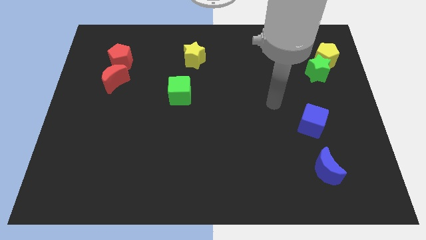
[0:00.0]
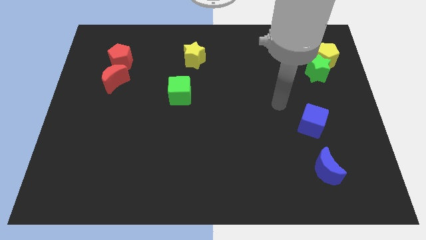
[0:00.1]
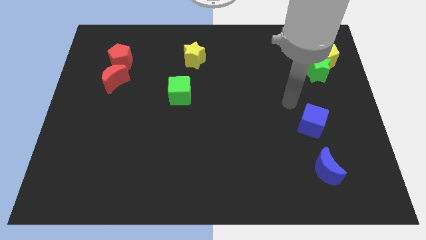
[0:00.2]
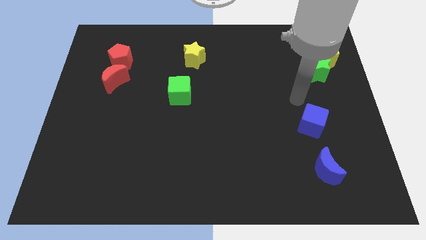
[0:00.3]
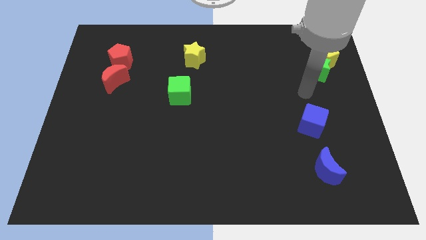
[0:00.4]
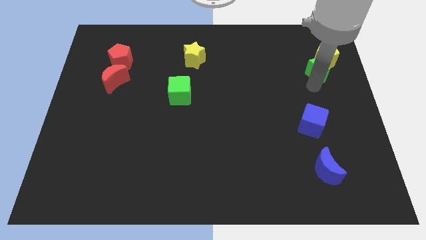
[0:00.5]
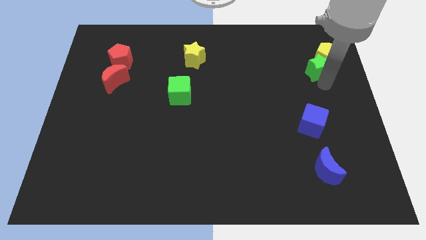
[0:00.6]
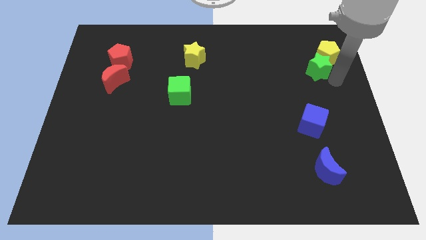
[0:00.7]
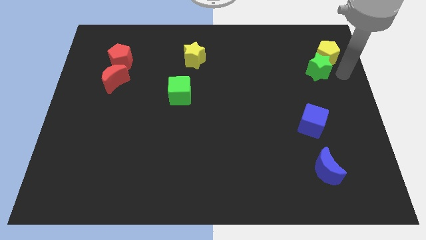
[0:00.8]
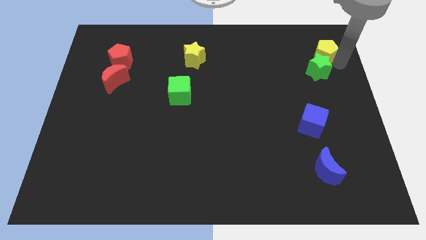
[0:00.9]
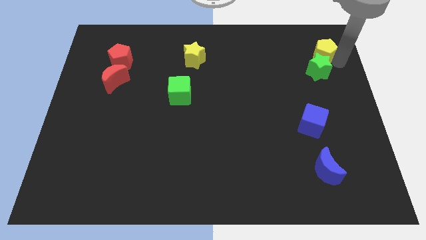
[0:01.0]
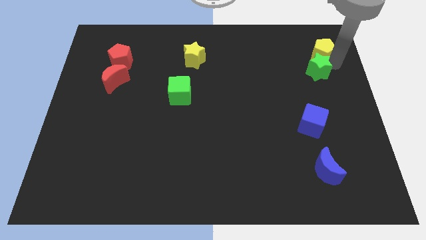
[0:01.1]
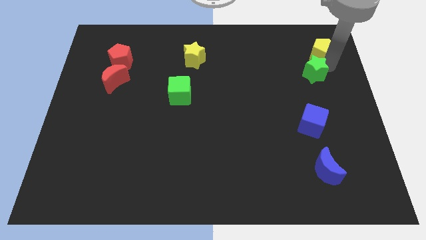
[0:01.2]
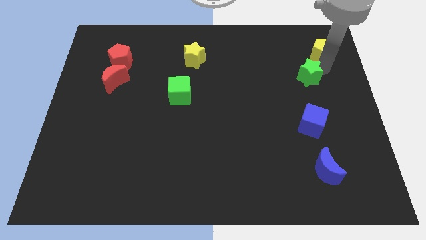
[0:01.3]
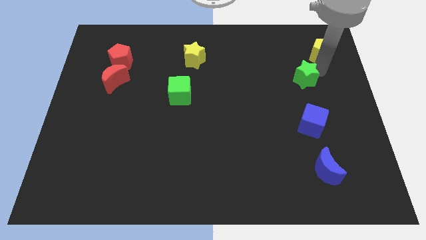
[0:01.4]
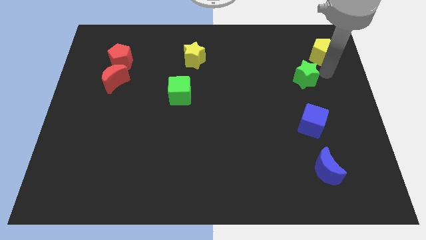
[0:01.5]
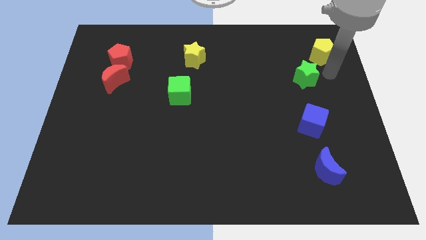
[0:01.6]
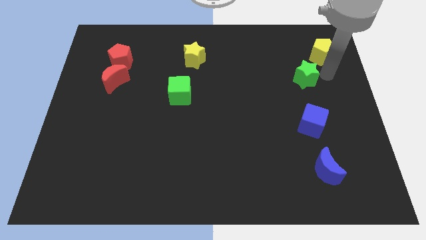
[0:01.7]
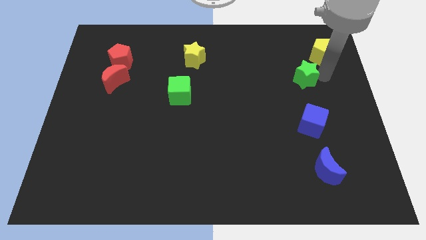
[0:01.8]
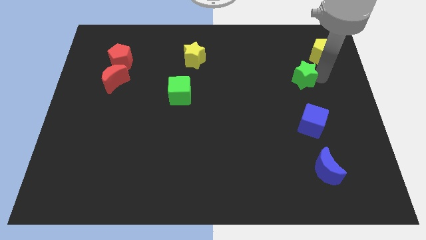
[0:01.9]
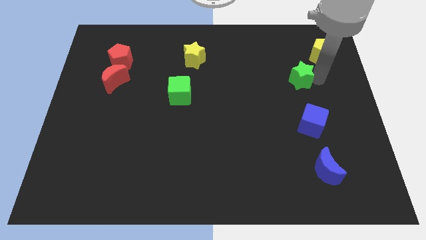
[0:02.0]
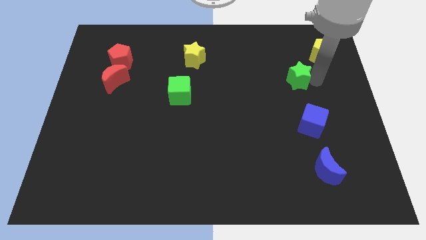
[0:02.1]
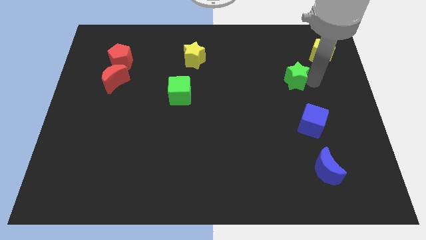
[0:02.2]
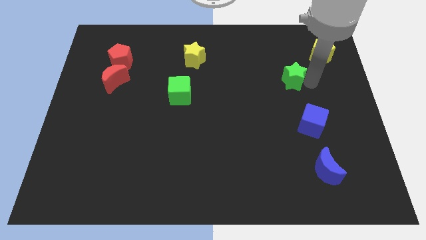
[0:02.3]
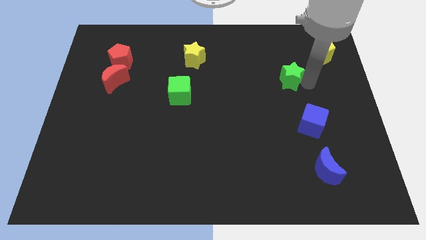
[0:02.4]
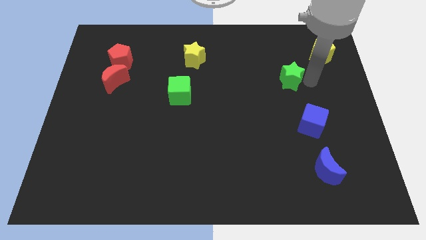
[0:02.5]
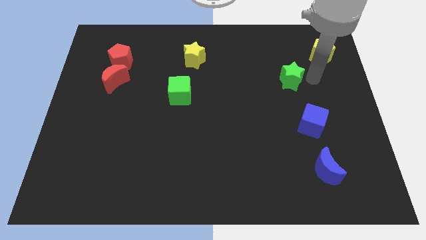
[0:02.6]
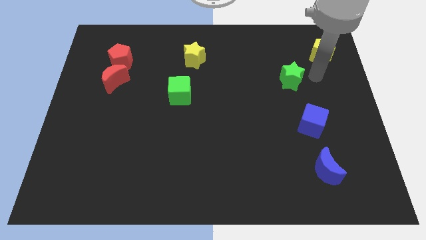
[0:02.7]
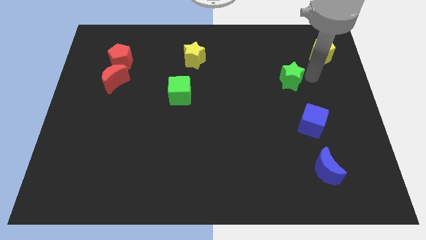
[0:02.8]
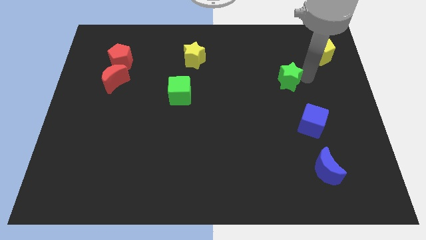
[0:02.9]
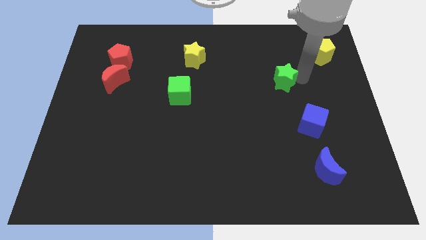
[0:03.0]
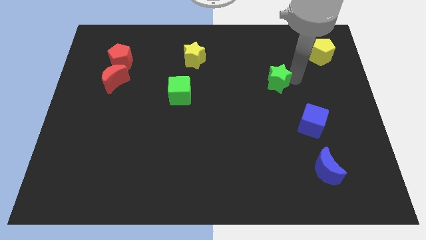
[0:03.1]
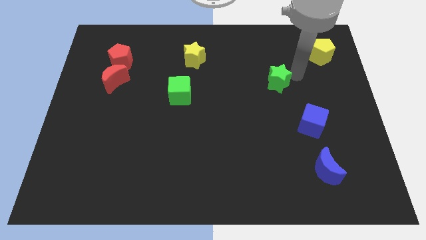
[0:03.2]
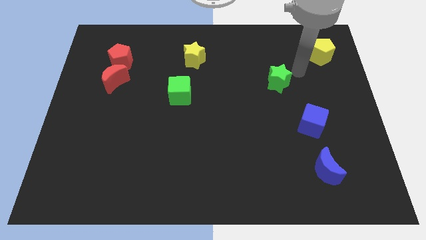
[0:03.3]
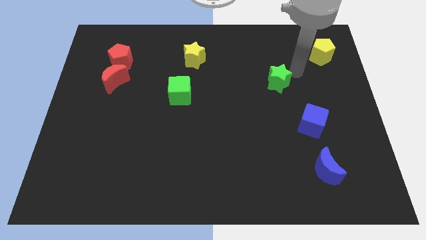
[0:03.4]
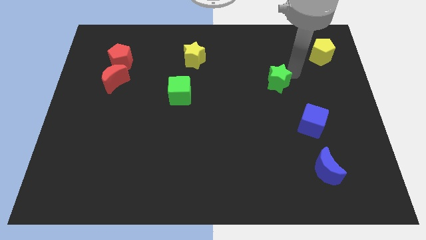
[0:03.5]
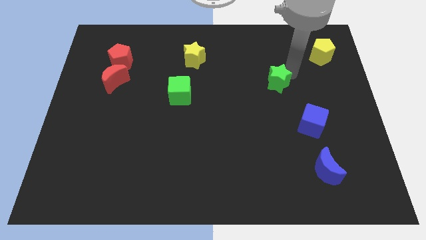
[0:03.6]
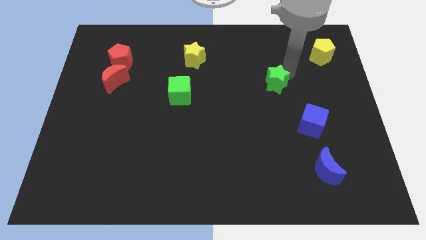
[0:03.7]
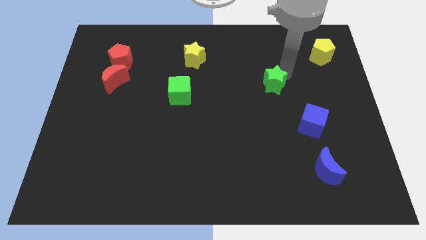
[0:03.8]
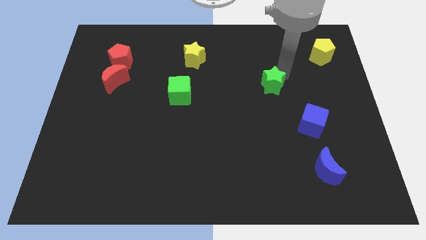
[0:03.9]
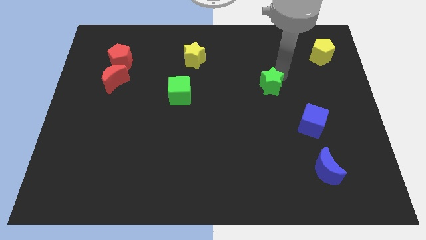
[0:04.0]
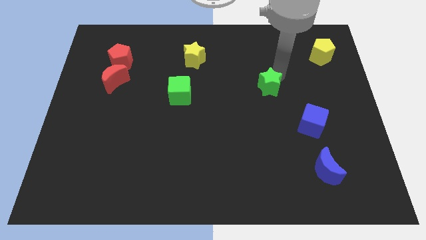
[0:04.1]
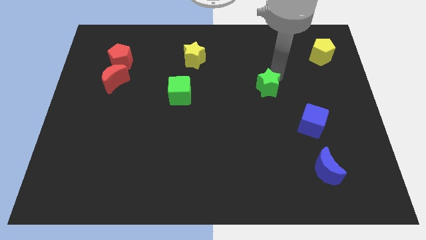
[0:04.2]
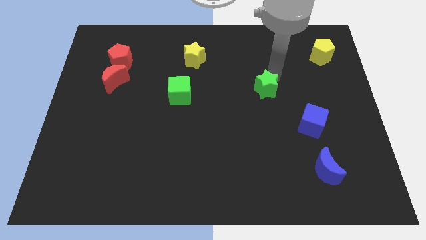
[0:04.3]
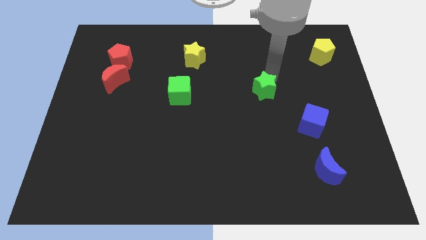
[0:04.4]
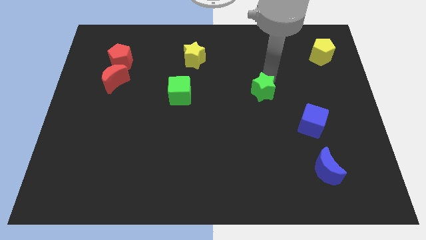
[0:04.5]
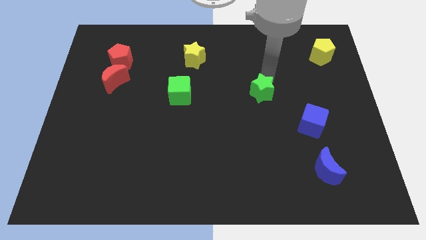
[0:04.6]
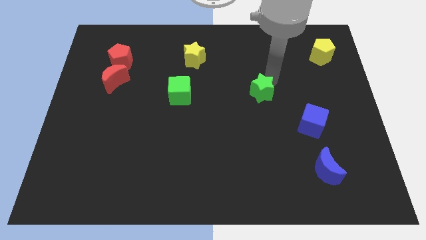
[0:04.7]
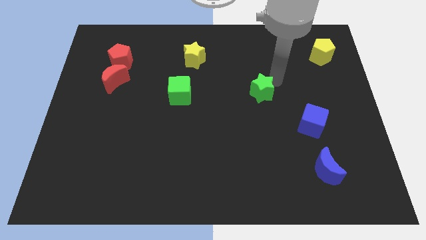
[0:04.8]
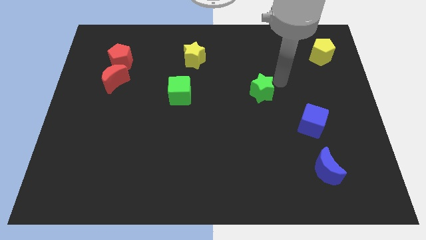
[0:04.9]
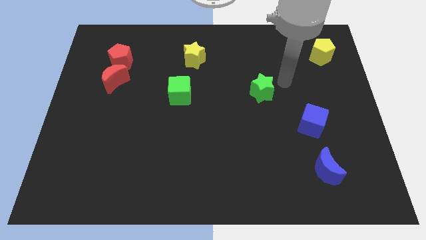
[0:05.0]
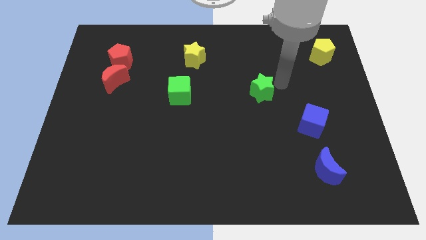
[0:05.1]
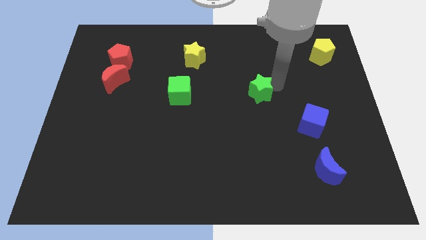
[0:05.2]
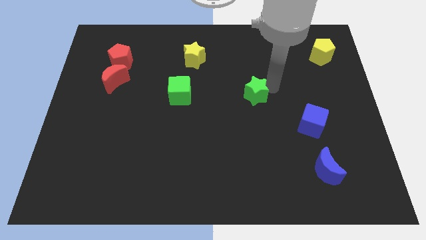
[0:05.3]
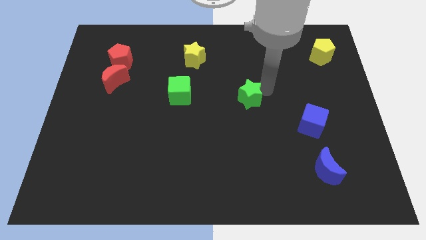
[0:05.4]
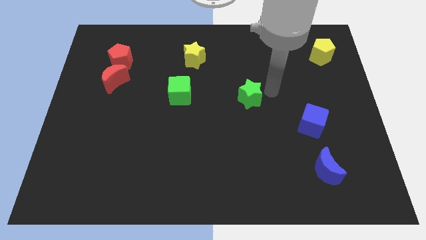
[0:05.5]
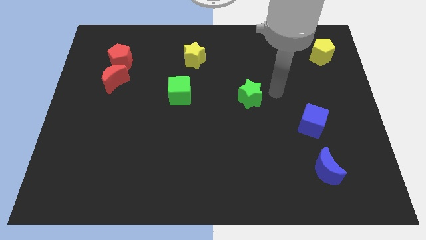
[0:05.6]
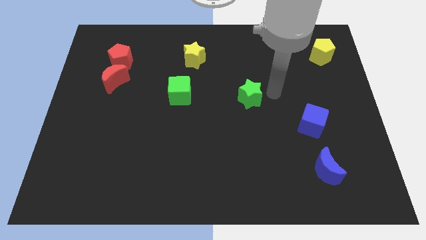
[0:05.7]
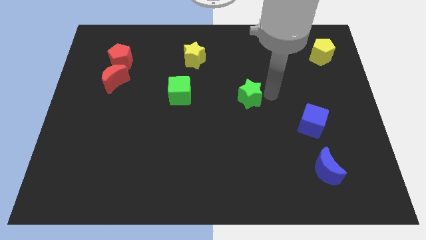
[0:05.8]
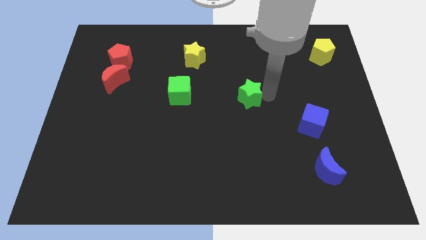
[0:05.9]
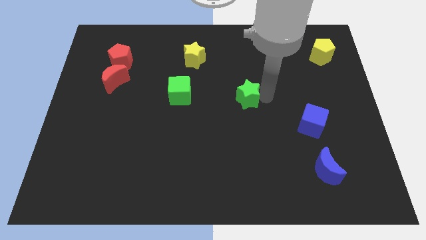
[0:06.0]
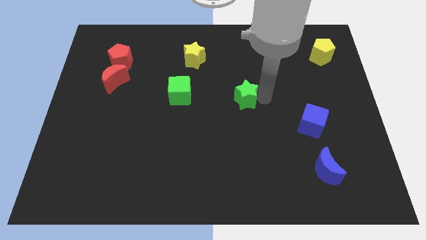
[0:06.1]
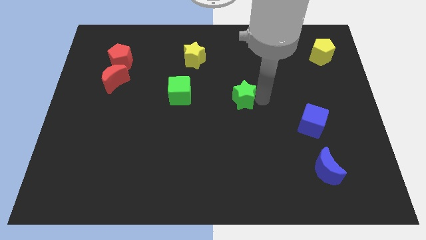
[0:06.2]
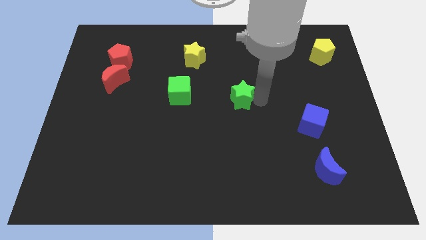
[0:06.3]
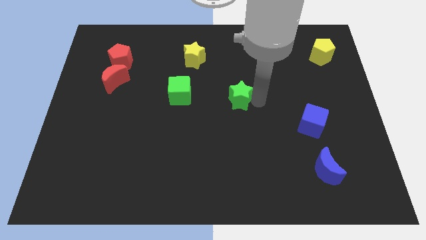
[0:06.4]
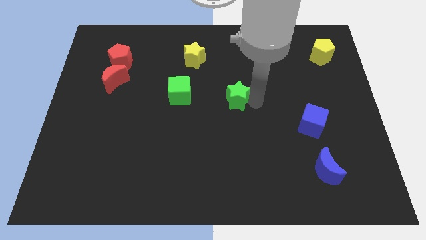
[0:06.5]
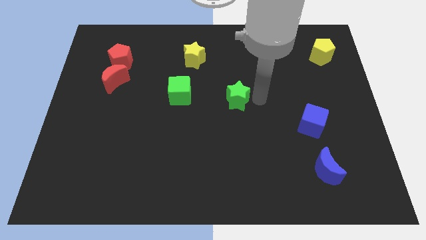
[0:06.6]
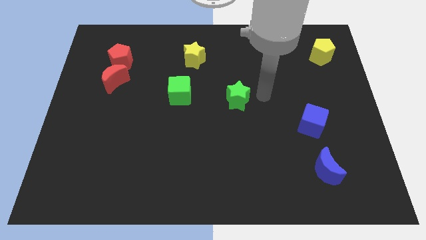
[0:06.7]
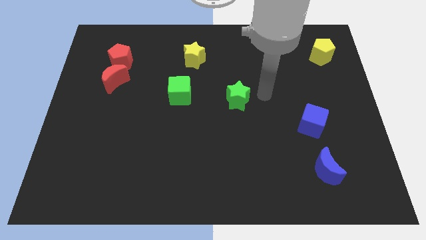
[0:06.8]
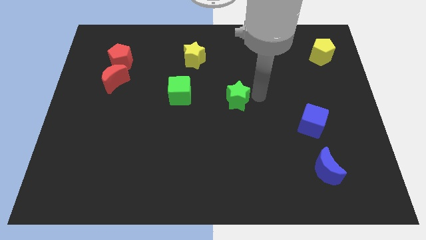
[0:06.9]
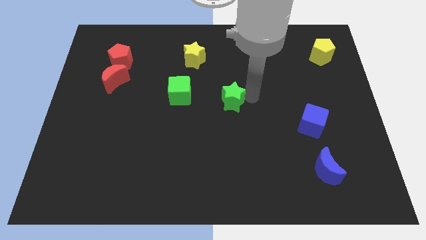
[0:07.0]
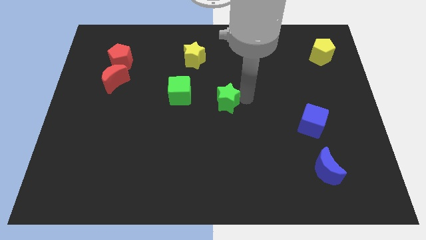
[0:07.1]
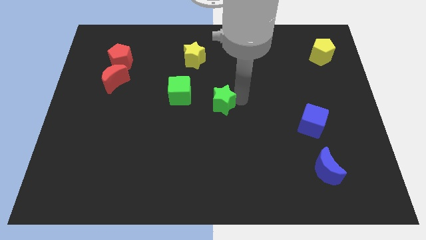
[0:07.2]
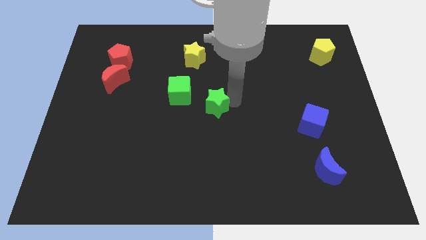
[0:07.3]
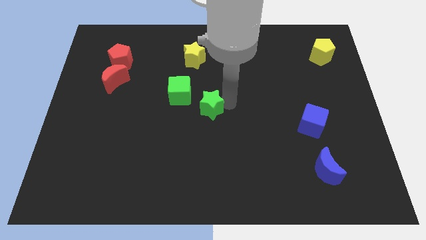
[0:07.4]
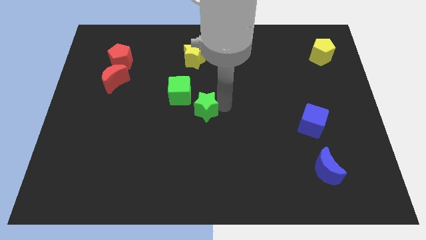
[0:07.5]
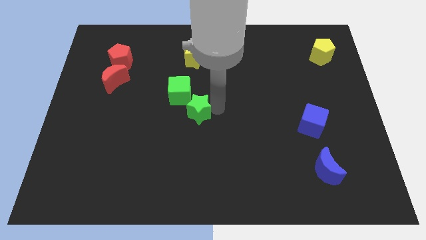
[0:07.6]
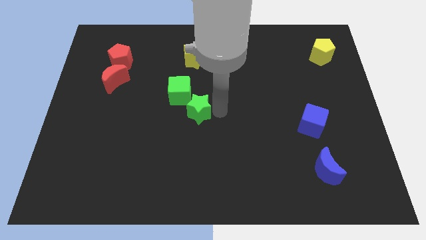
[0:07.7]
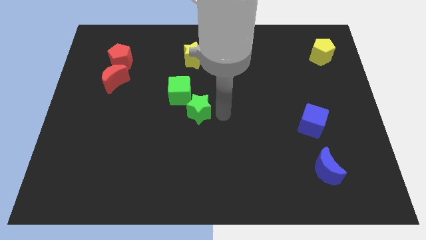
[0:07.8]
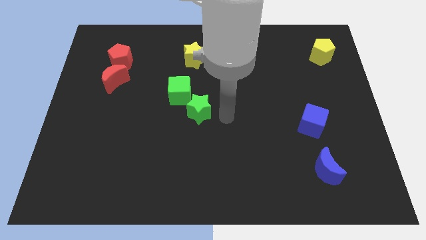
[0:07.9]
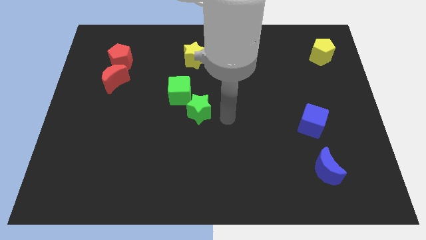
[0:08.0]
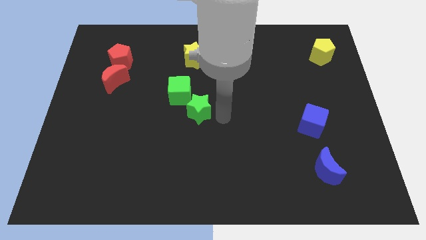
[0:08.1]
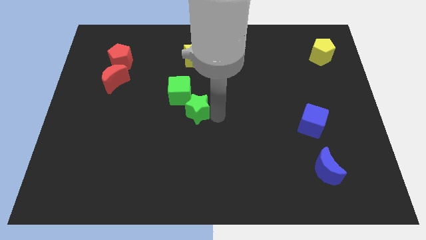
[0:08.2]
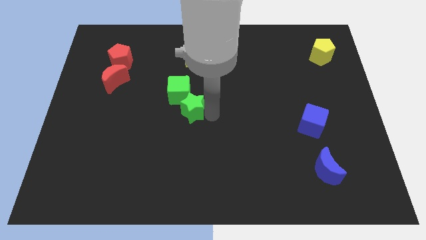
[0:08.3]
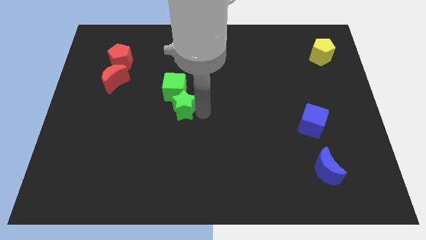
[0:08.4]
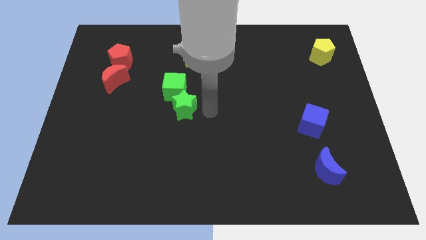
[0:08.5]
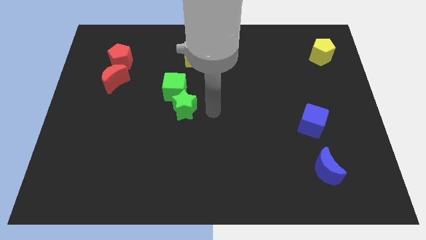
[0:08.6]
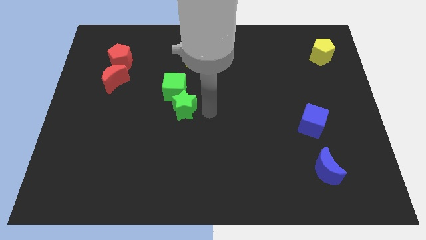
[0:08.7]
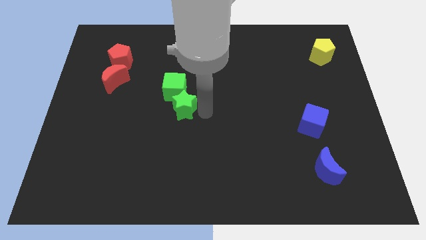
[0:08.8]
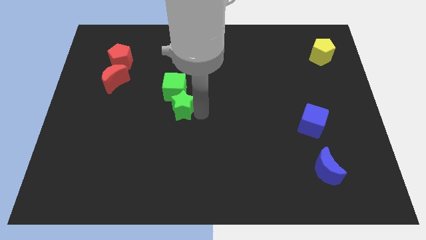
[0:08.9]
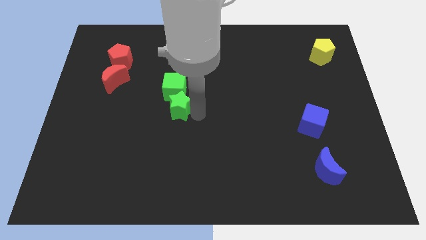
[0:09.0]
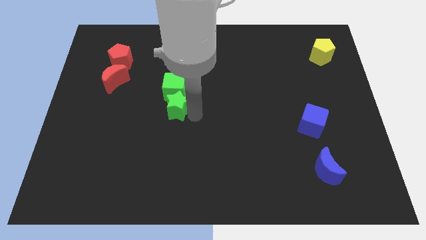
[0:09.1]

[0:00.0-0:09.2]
push the green star to the bottom left side of the green cube
